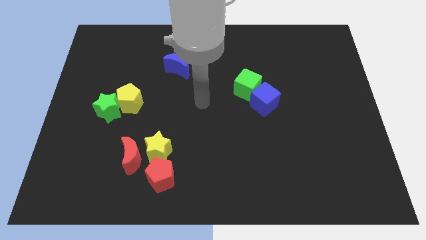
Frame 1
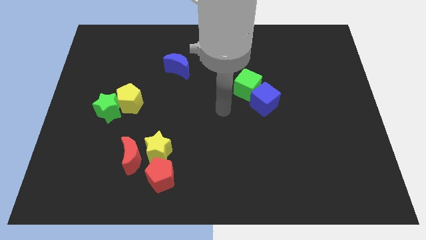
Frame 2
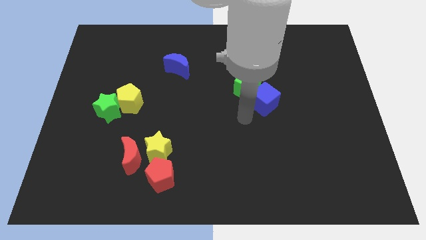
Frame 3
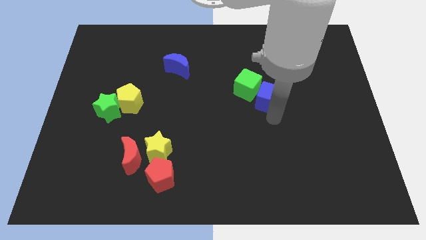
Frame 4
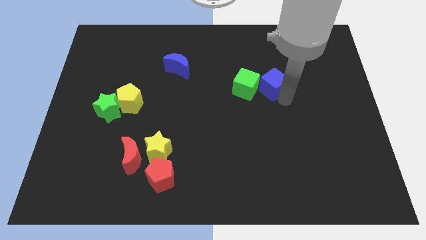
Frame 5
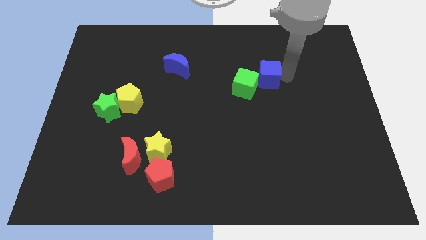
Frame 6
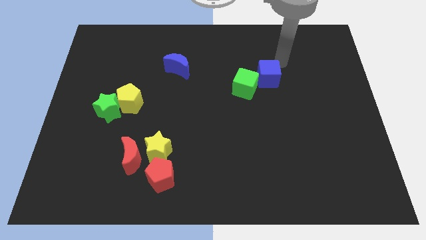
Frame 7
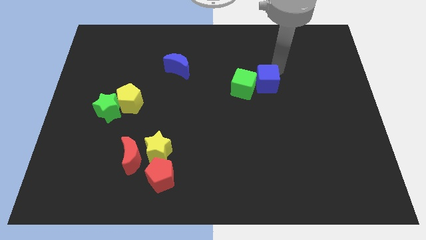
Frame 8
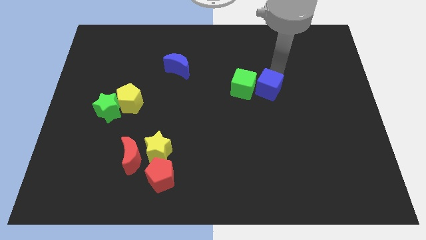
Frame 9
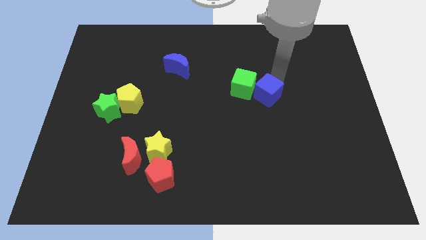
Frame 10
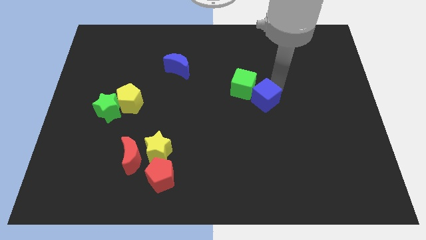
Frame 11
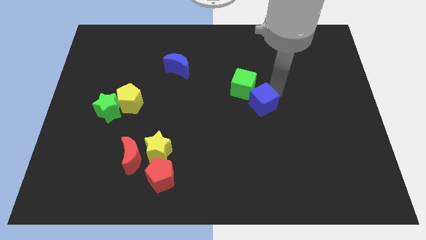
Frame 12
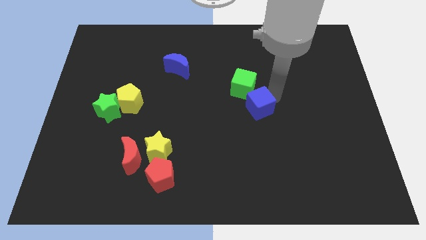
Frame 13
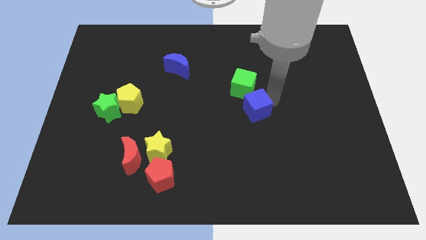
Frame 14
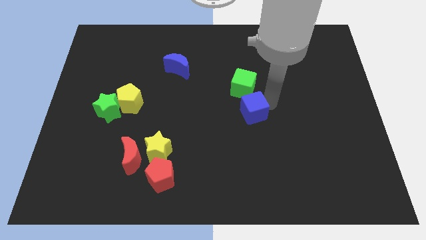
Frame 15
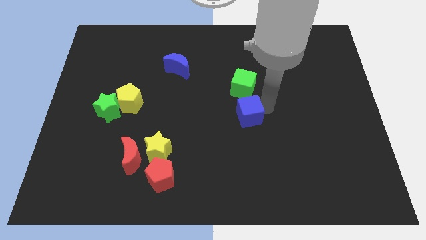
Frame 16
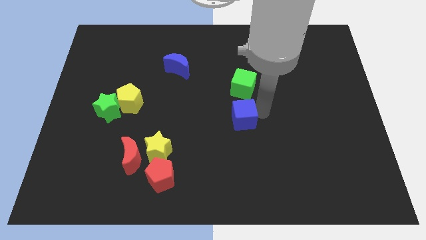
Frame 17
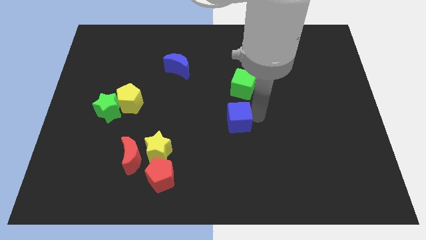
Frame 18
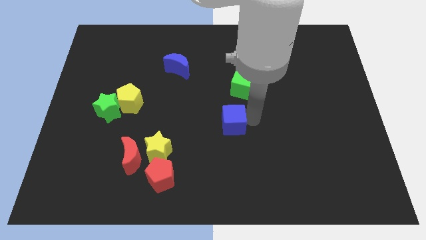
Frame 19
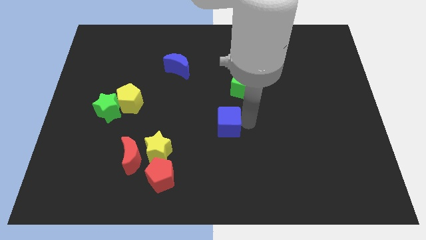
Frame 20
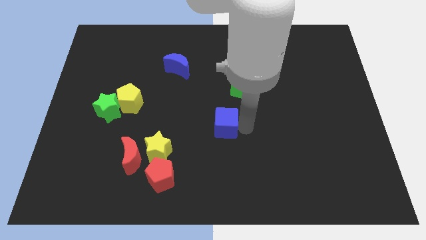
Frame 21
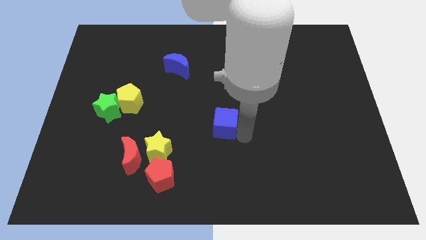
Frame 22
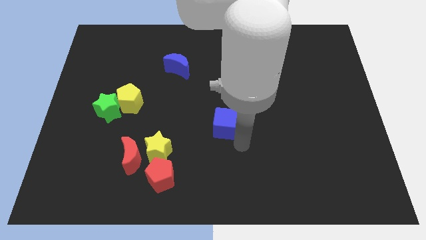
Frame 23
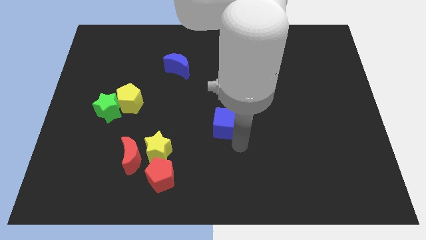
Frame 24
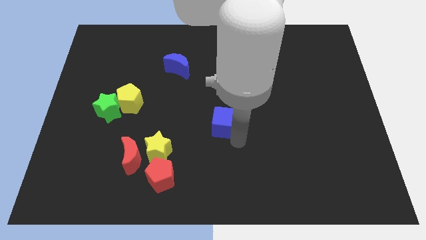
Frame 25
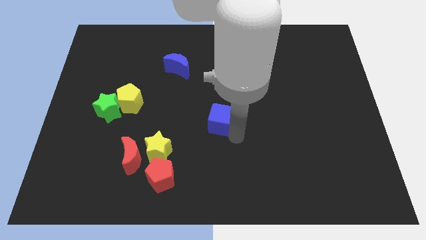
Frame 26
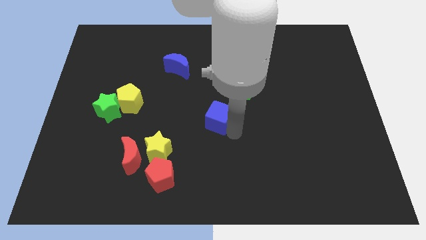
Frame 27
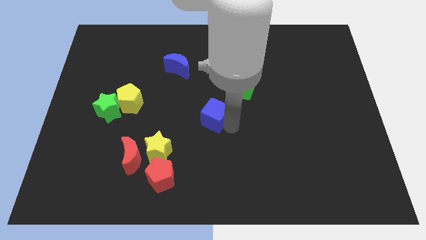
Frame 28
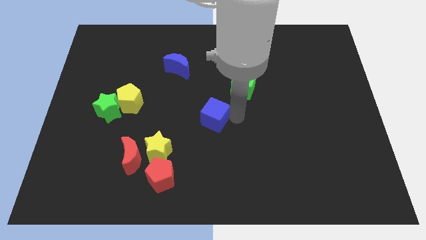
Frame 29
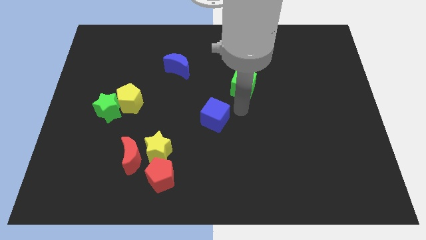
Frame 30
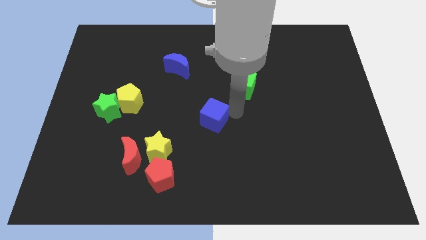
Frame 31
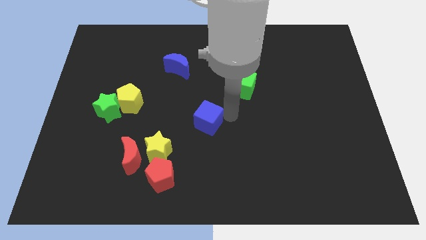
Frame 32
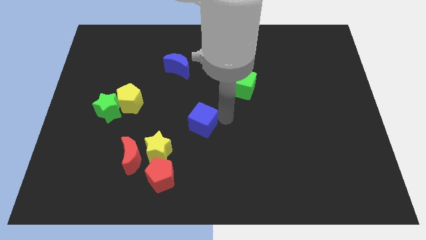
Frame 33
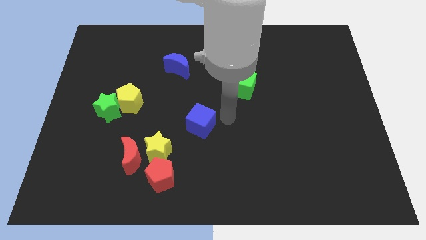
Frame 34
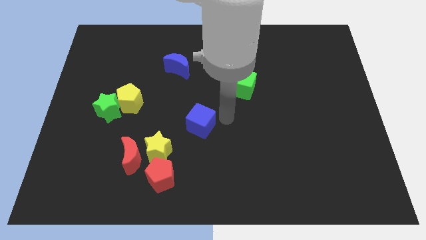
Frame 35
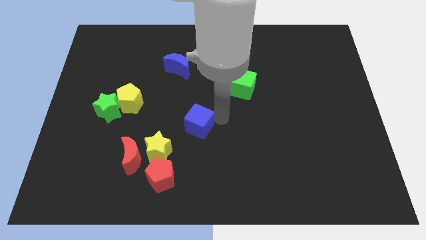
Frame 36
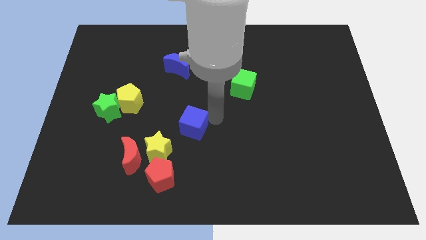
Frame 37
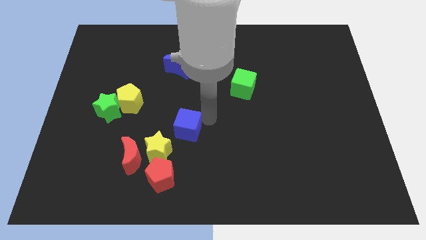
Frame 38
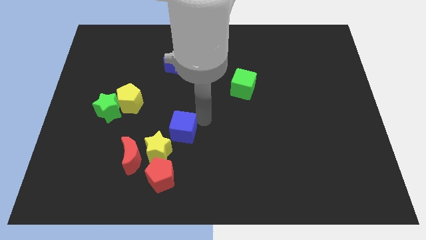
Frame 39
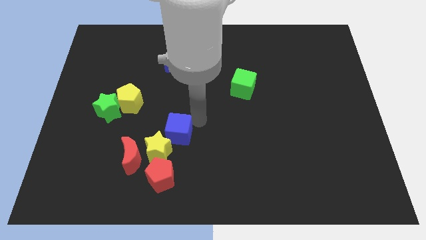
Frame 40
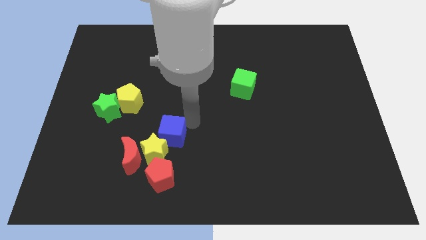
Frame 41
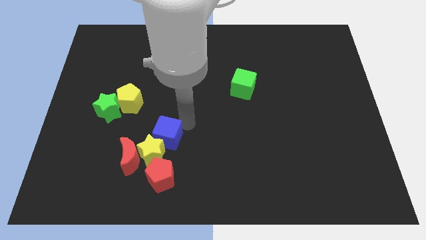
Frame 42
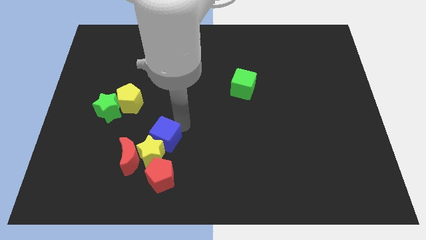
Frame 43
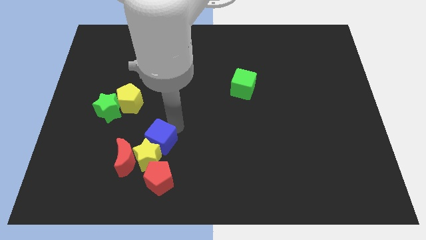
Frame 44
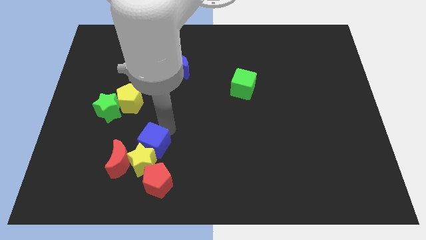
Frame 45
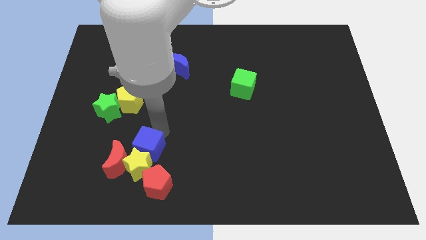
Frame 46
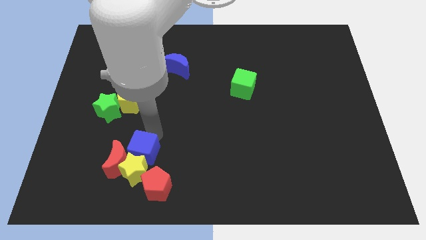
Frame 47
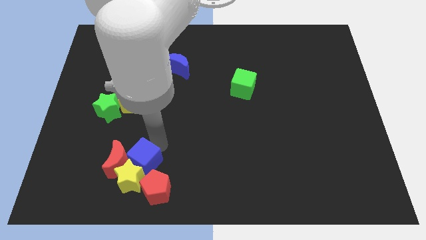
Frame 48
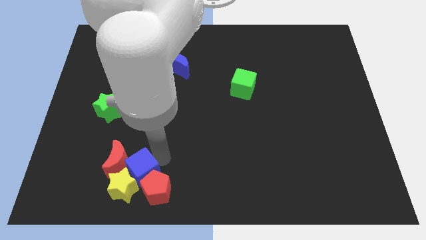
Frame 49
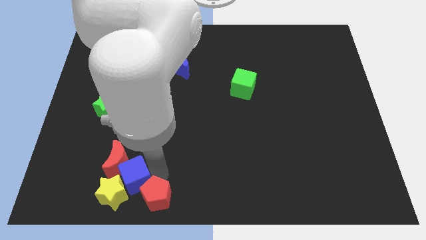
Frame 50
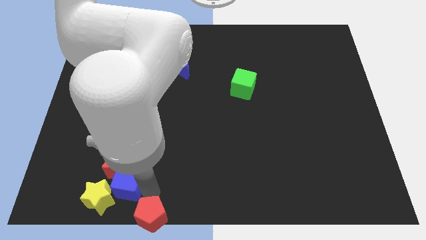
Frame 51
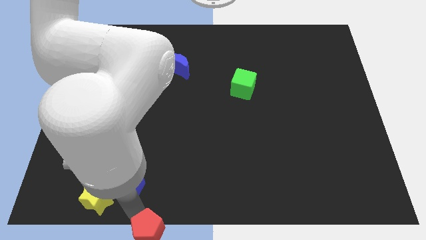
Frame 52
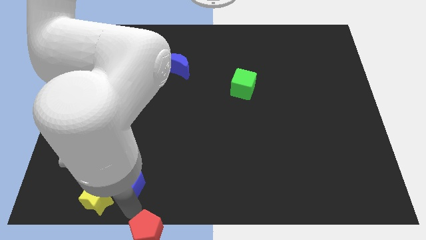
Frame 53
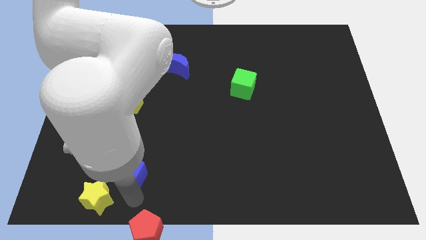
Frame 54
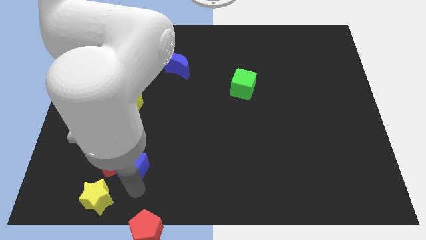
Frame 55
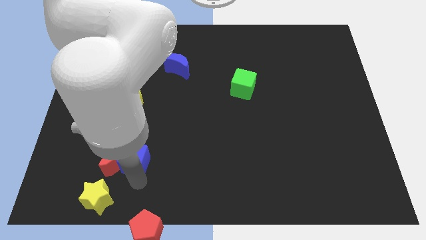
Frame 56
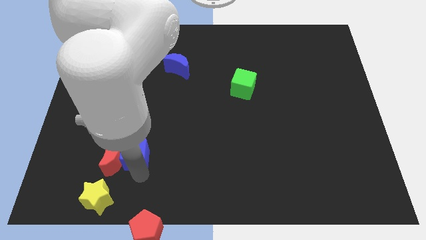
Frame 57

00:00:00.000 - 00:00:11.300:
push the blue cube to the bottom of the yellow pentagon
